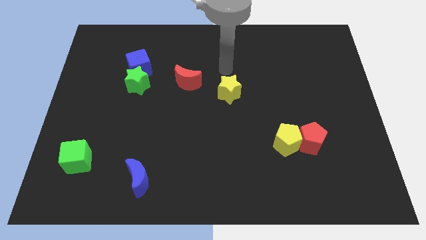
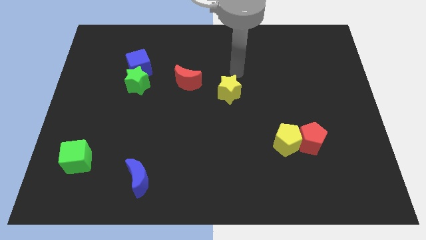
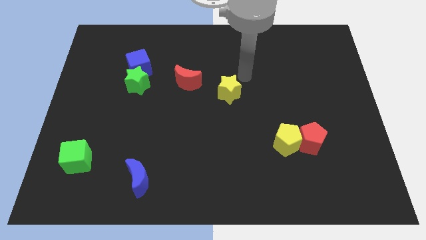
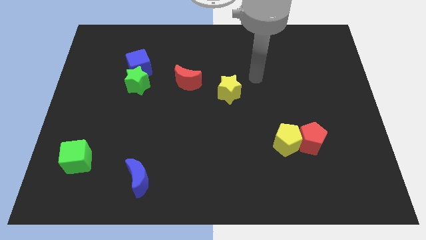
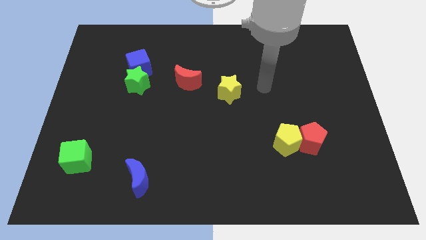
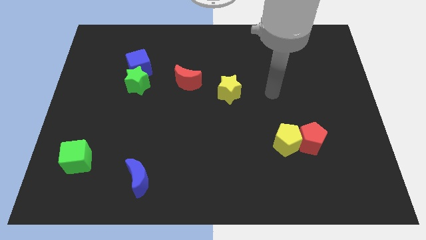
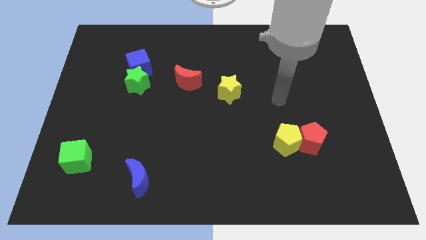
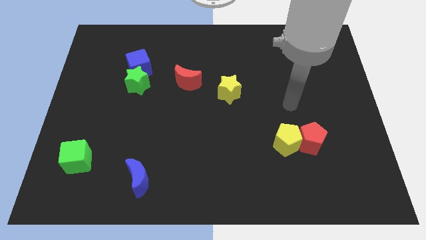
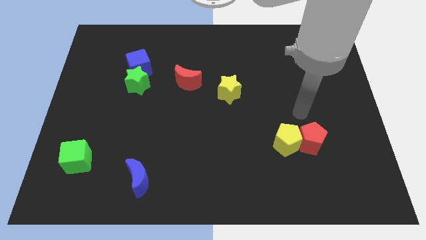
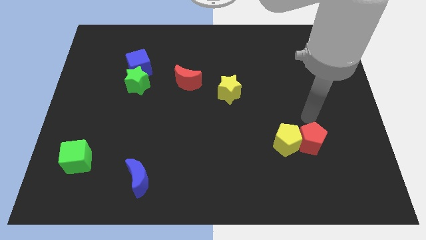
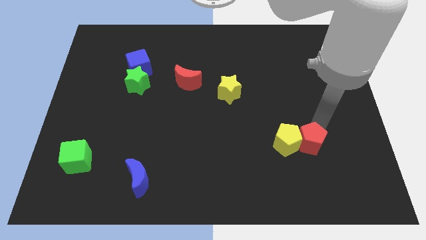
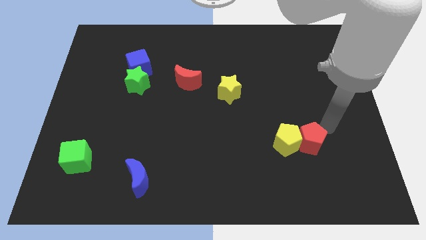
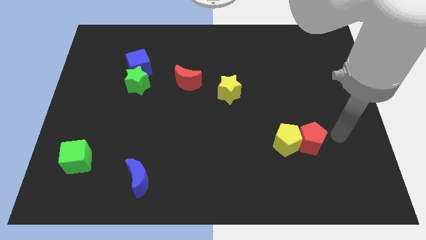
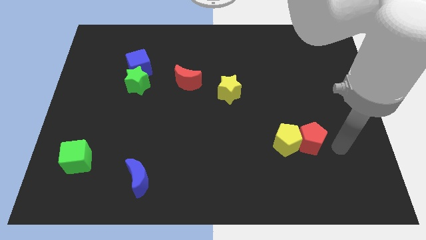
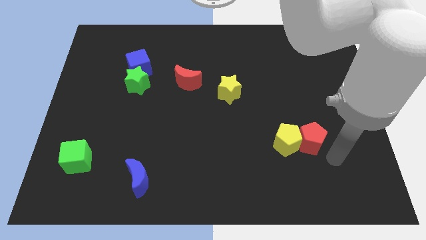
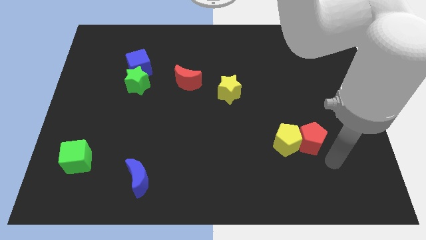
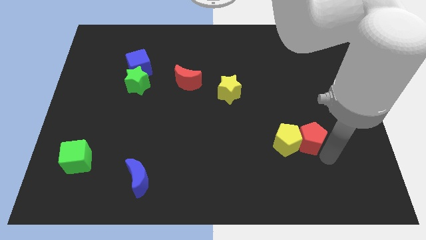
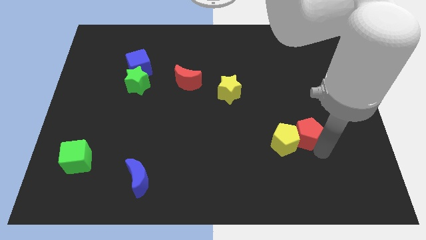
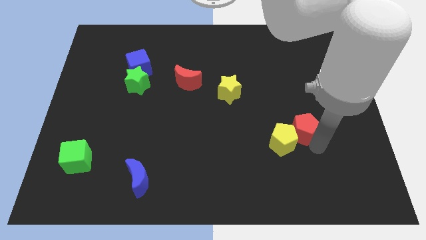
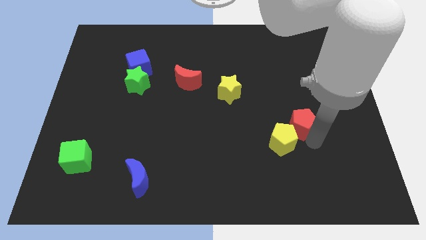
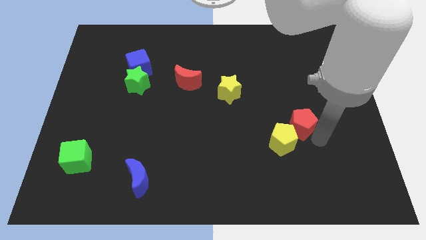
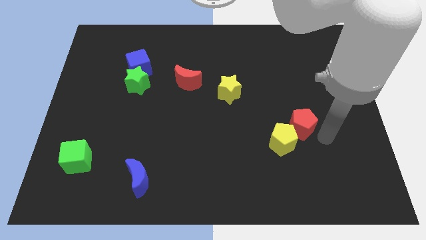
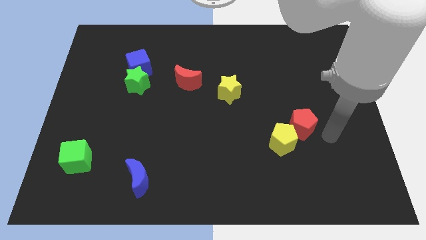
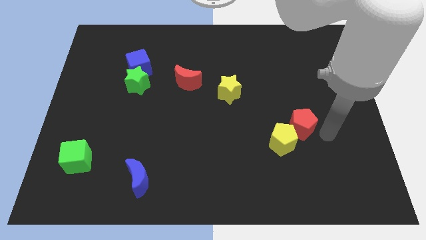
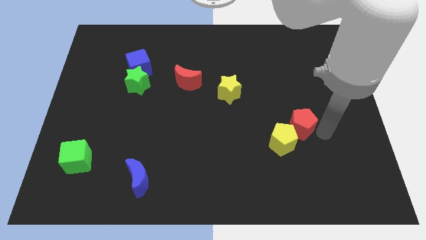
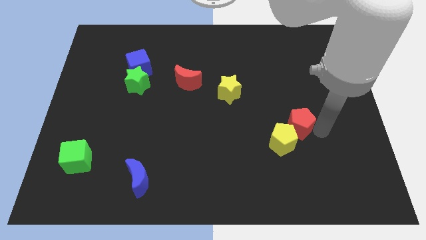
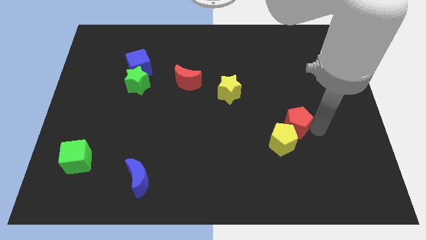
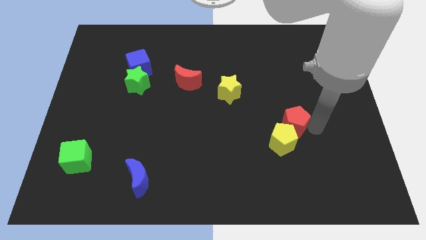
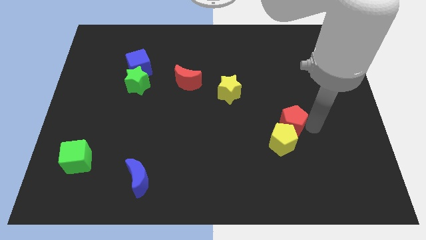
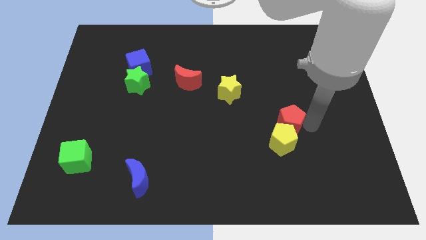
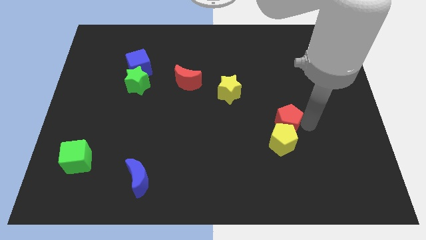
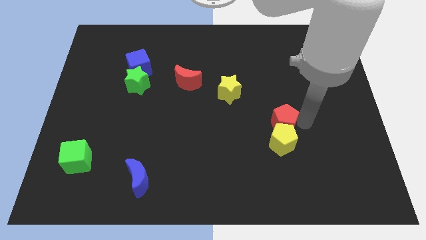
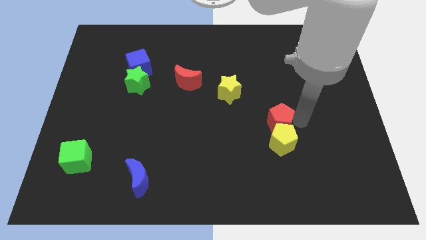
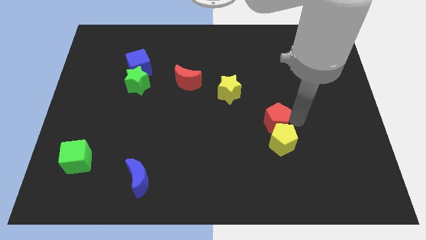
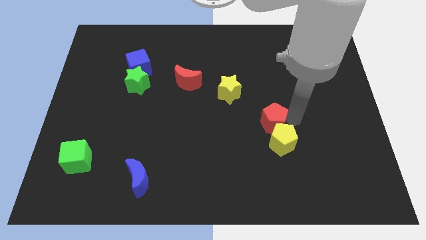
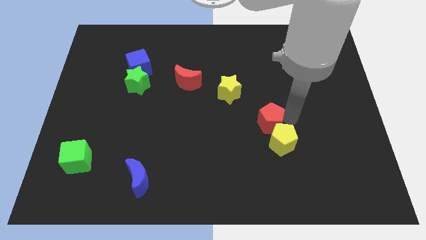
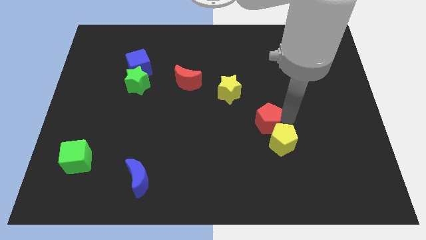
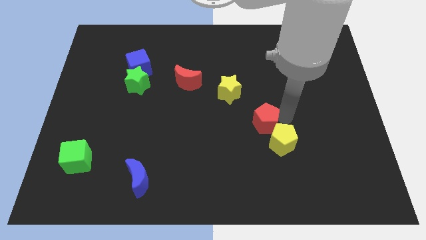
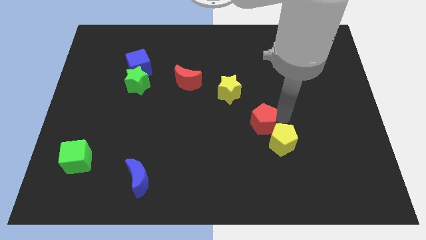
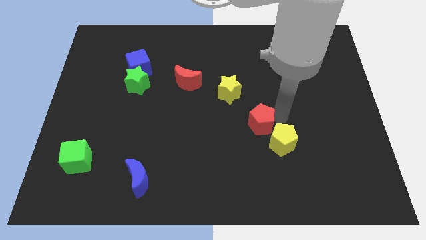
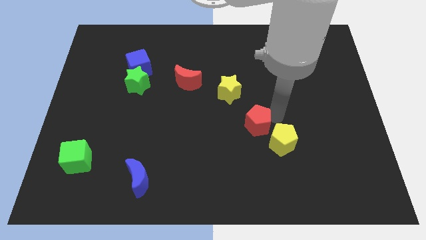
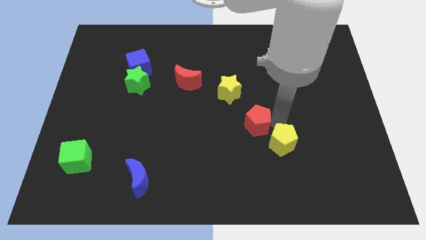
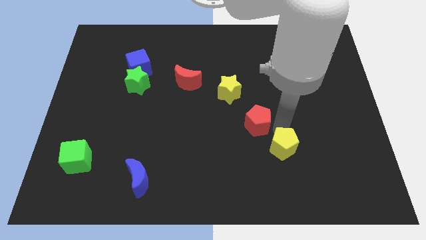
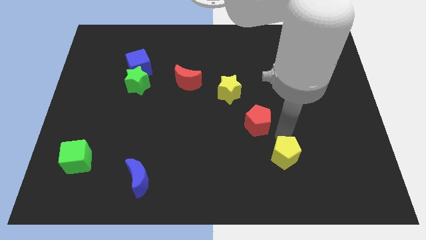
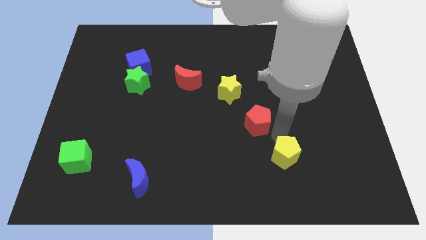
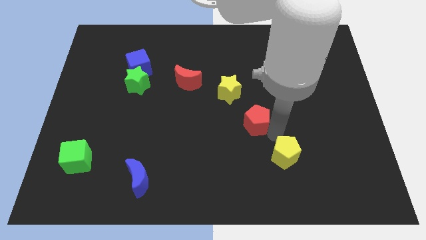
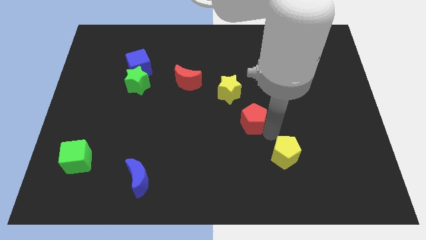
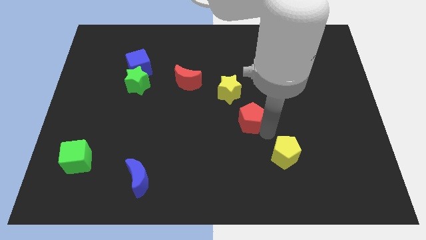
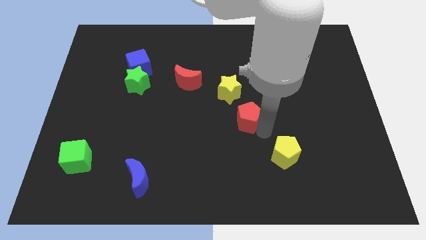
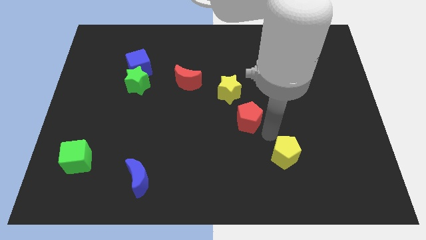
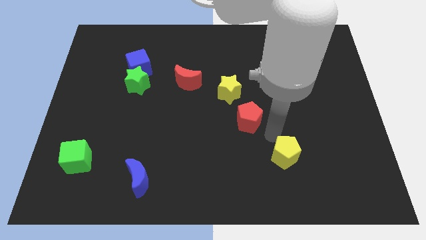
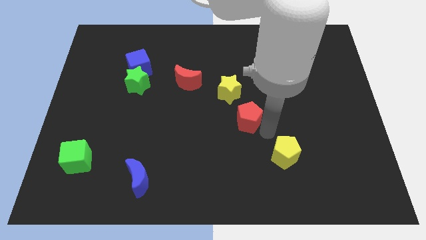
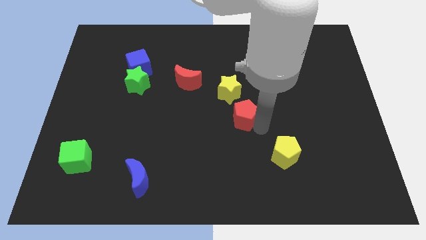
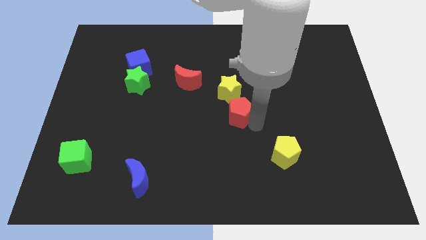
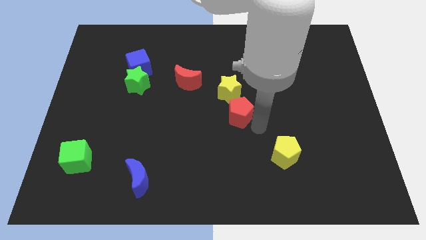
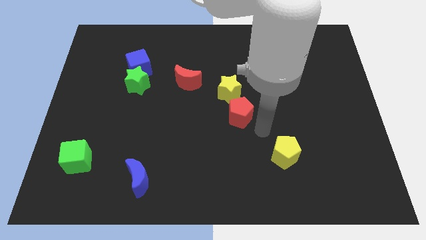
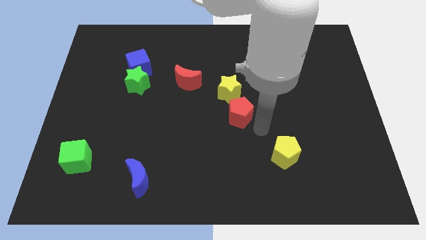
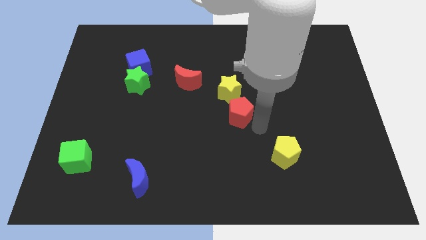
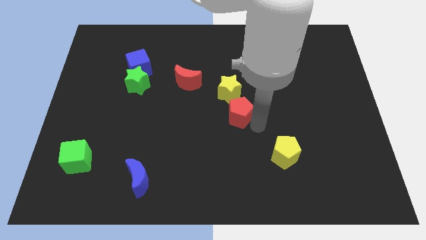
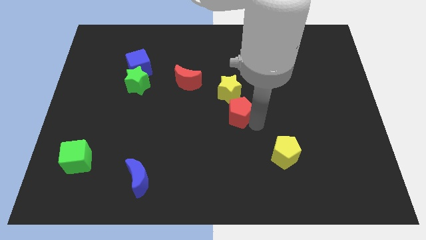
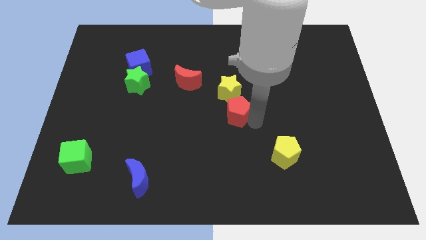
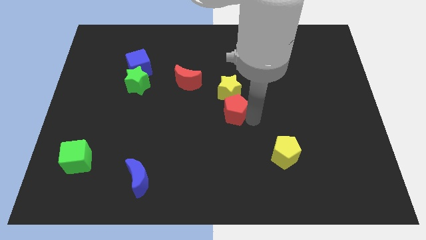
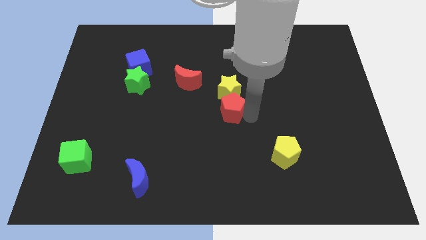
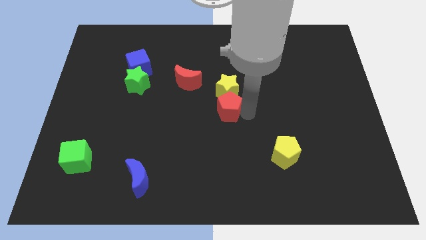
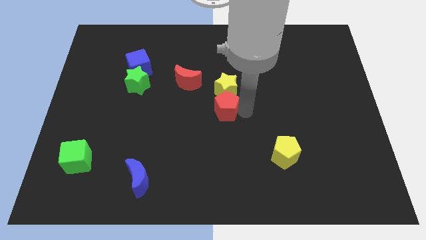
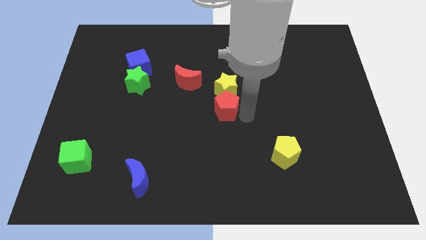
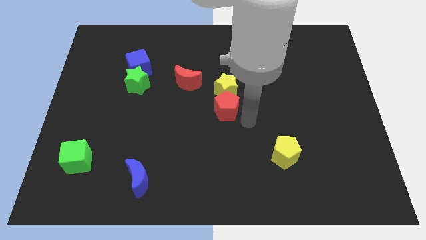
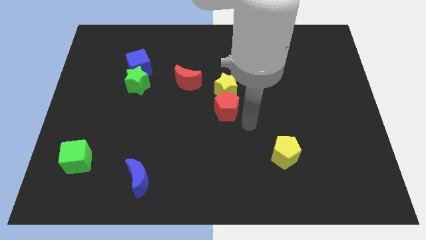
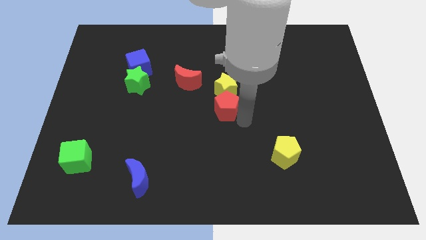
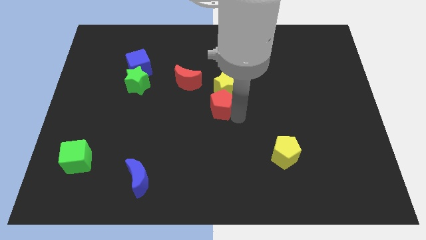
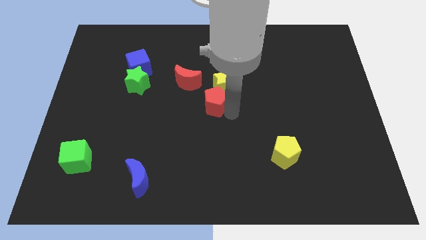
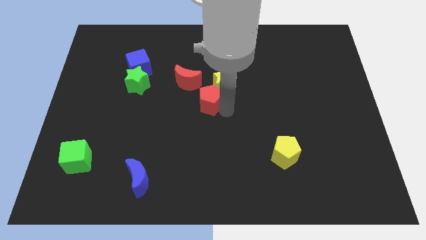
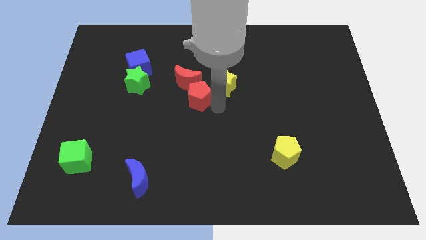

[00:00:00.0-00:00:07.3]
push the red pentagon close to the red moon

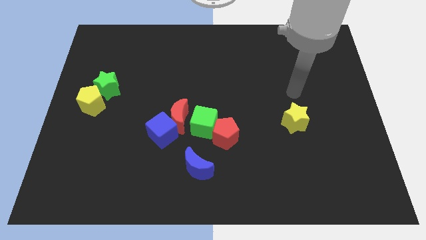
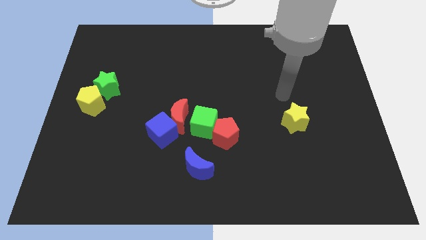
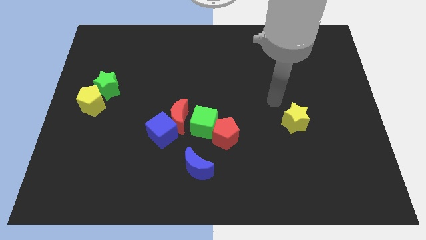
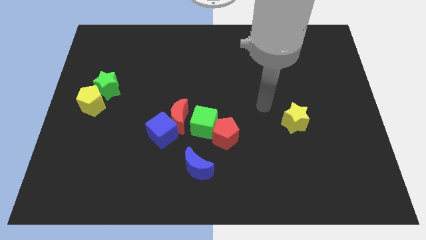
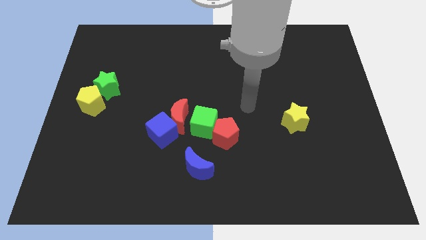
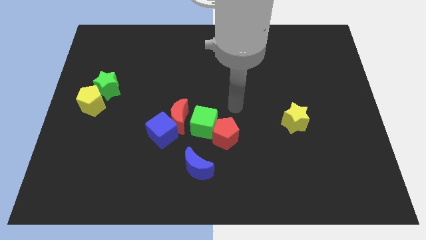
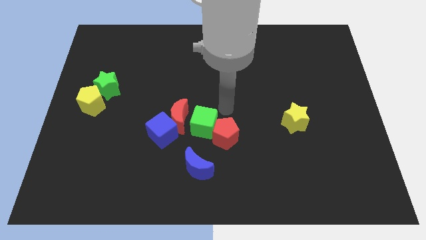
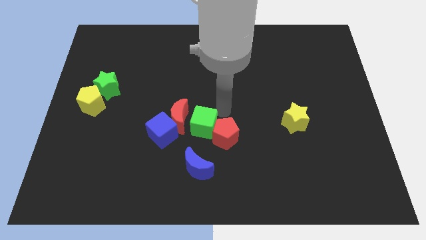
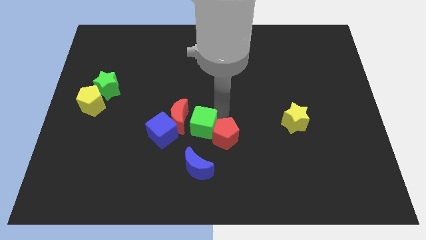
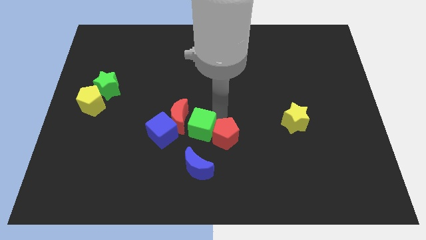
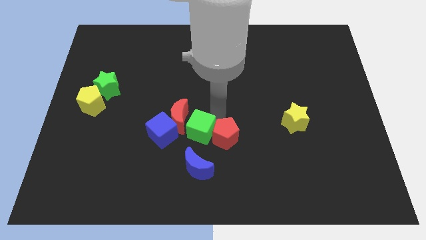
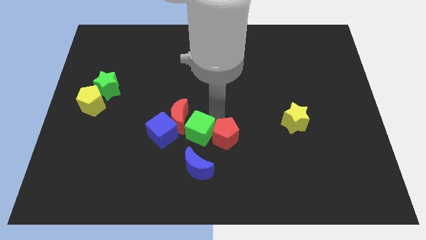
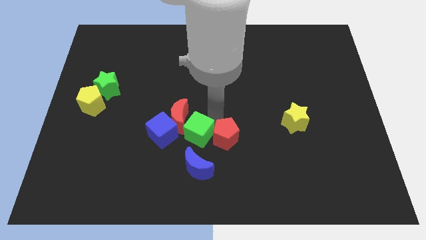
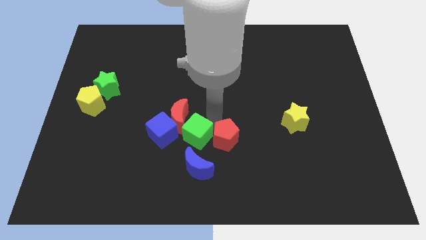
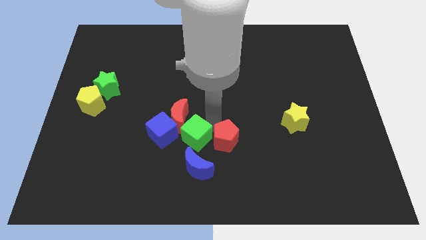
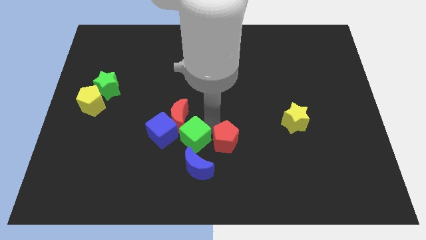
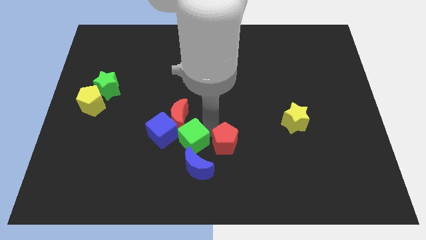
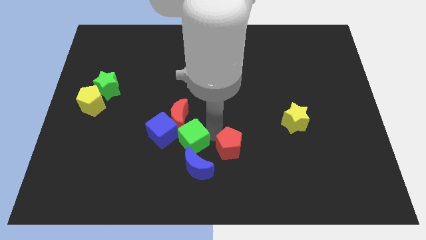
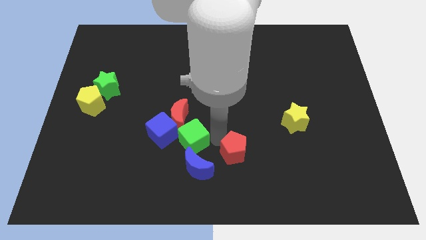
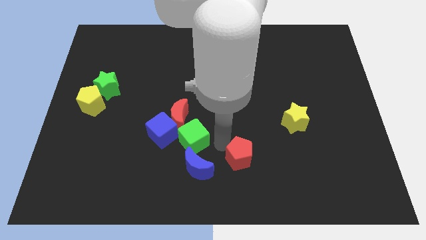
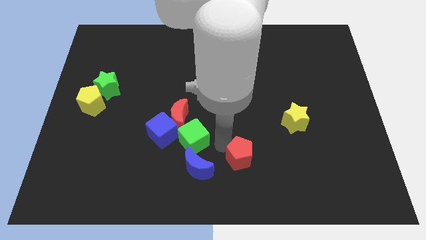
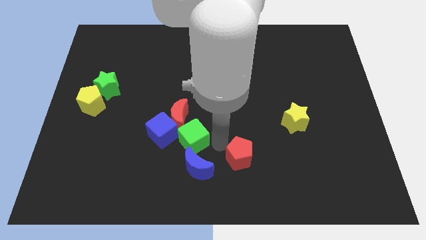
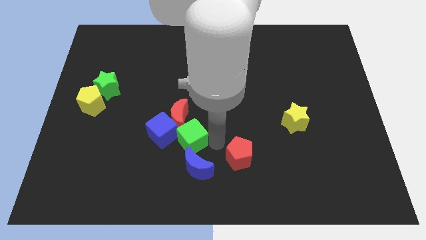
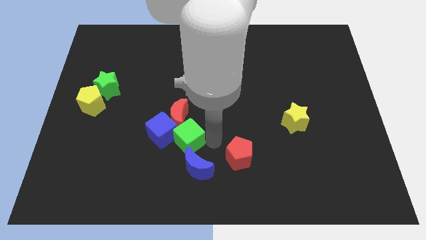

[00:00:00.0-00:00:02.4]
push the green cube next to the blue cube
